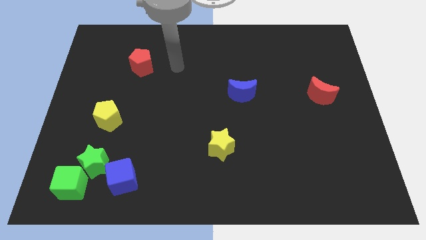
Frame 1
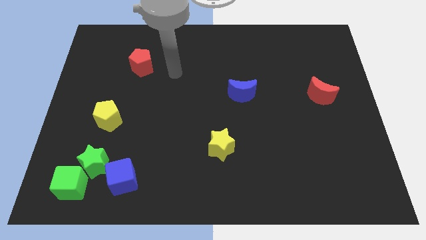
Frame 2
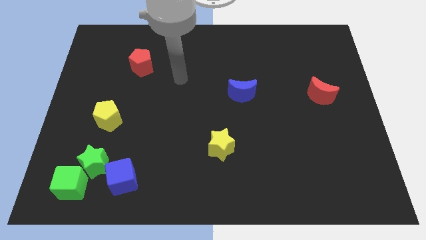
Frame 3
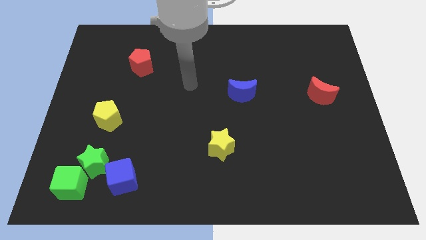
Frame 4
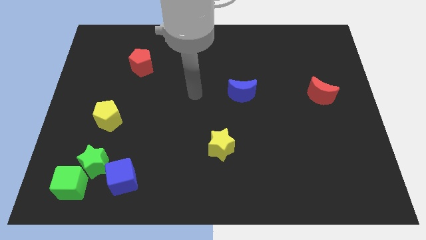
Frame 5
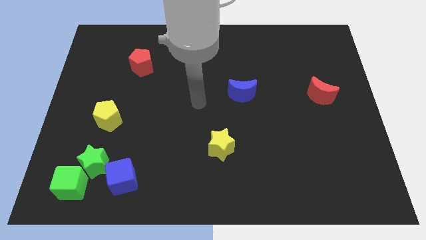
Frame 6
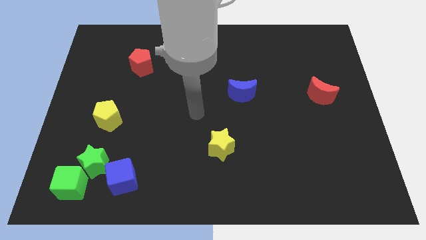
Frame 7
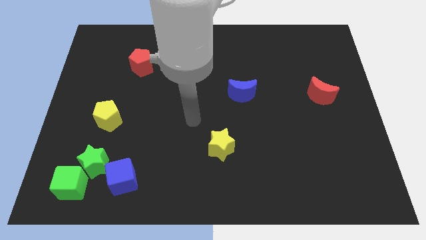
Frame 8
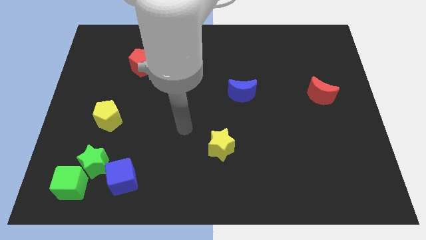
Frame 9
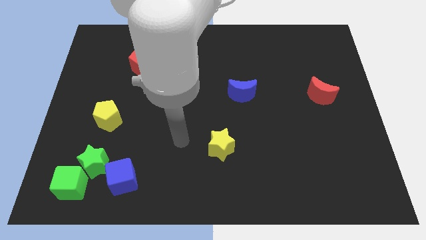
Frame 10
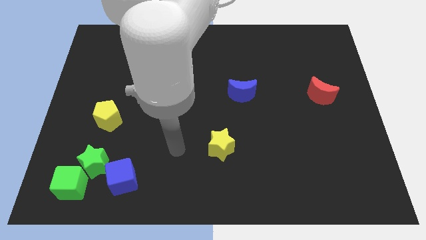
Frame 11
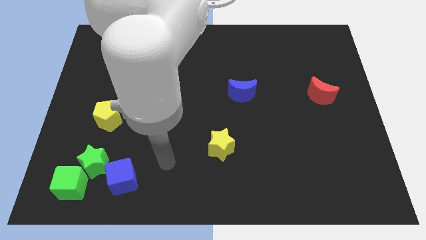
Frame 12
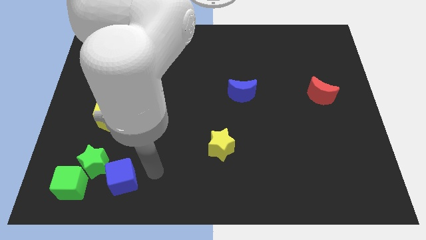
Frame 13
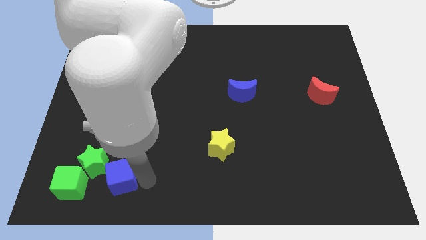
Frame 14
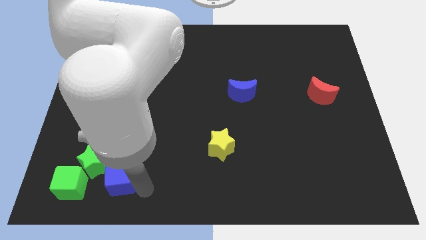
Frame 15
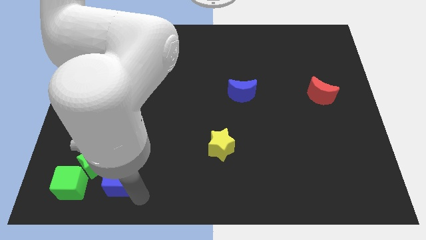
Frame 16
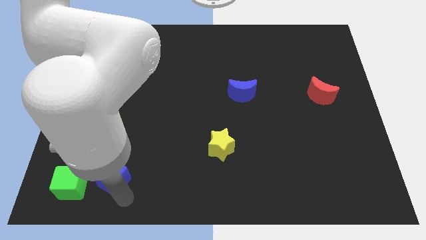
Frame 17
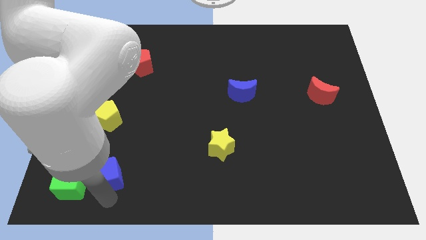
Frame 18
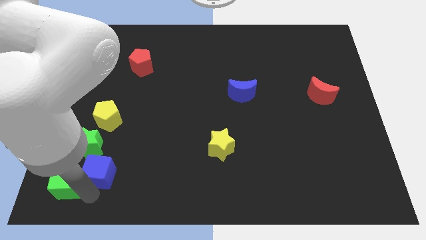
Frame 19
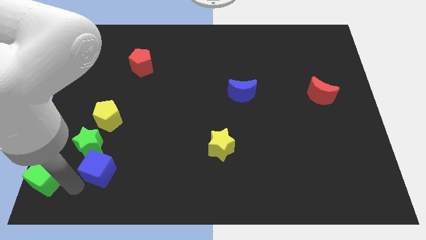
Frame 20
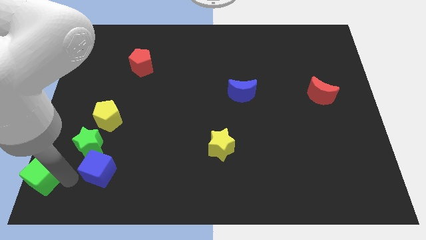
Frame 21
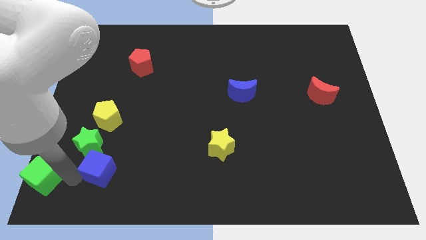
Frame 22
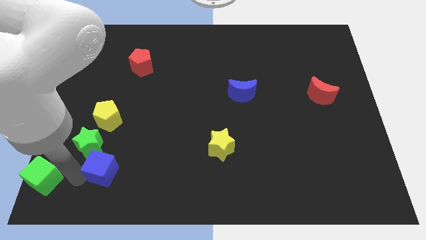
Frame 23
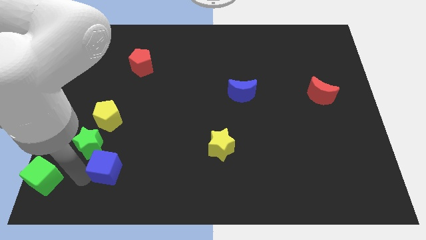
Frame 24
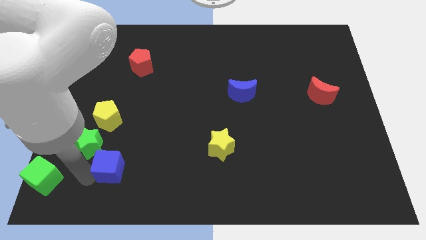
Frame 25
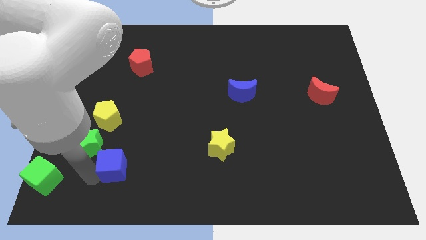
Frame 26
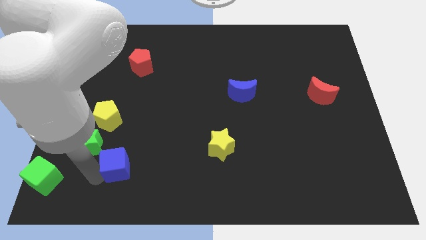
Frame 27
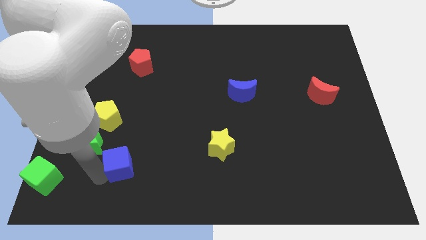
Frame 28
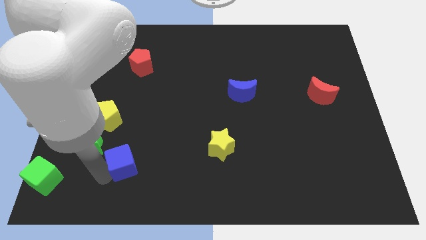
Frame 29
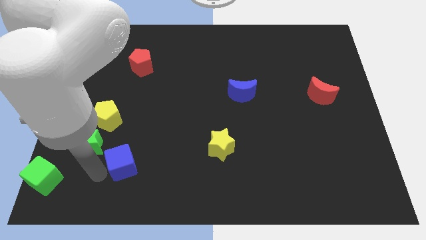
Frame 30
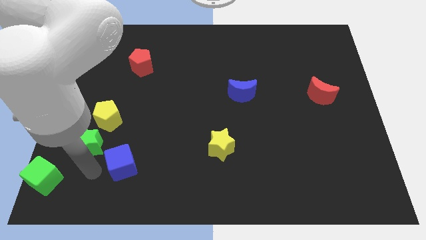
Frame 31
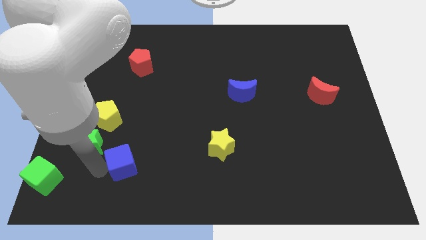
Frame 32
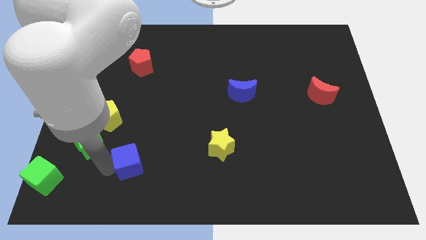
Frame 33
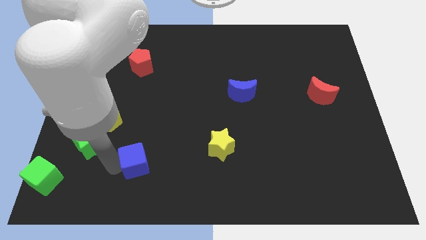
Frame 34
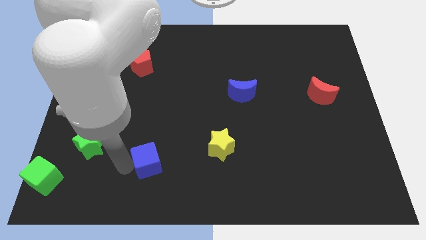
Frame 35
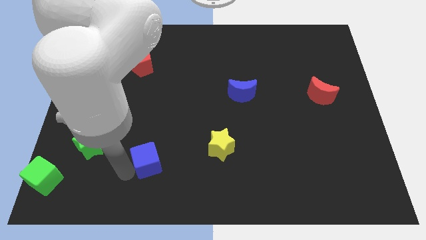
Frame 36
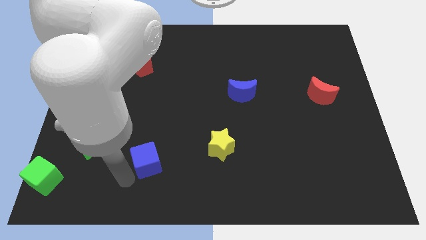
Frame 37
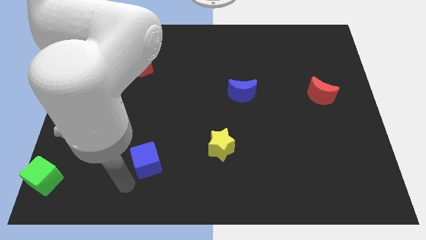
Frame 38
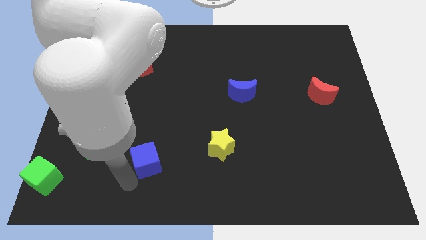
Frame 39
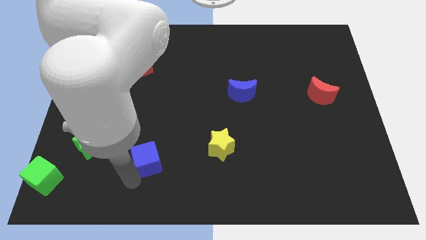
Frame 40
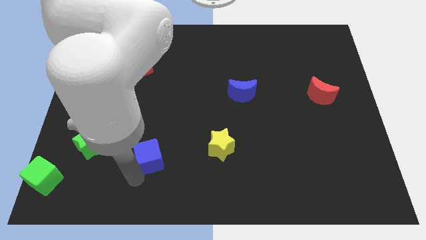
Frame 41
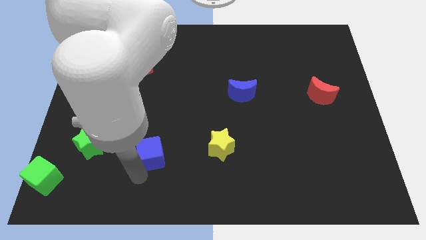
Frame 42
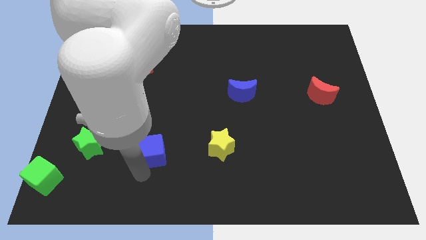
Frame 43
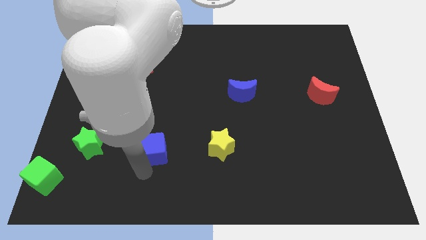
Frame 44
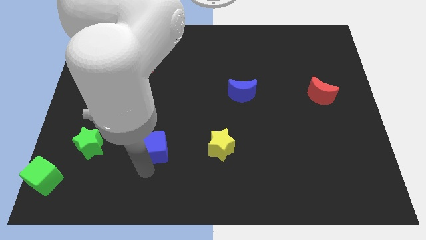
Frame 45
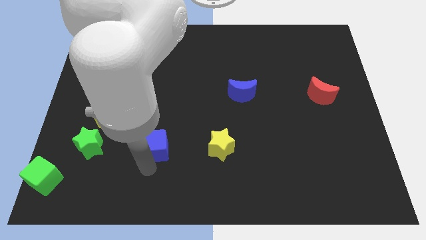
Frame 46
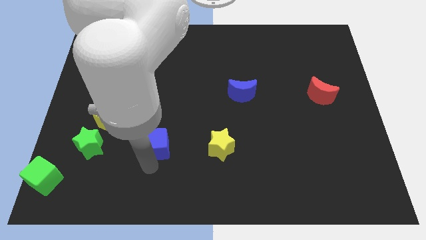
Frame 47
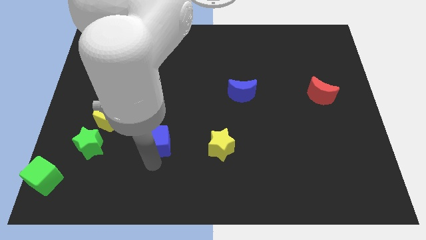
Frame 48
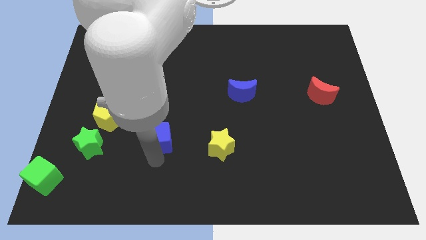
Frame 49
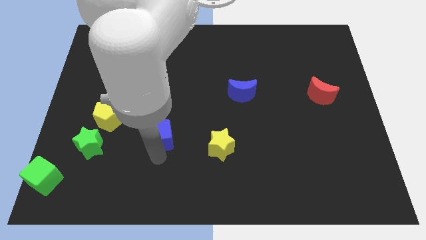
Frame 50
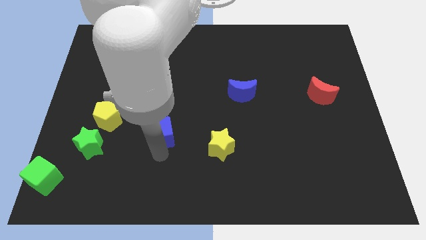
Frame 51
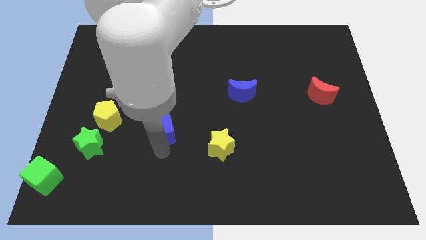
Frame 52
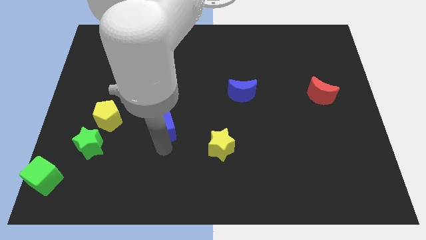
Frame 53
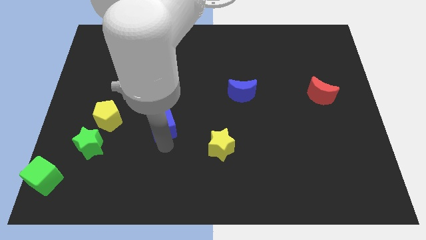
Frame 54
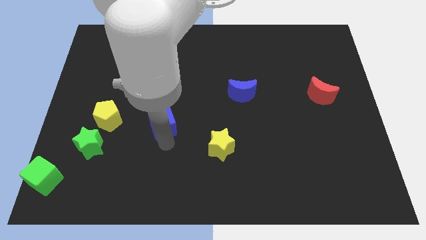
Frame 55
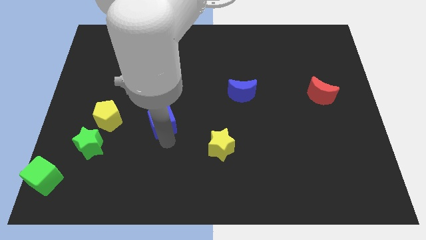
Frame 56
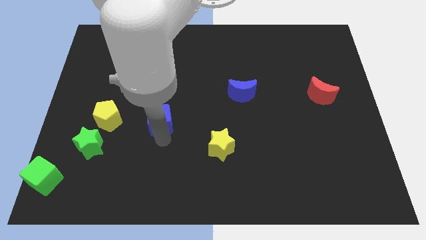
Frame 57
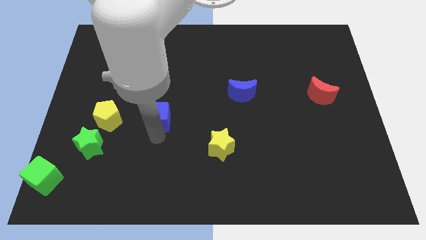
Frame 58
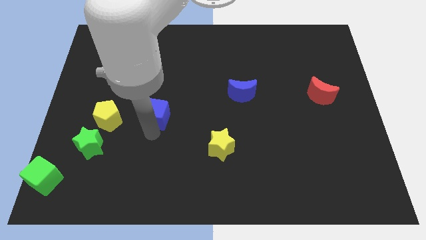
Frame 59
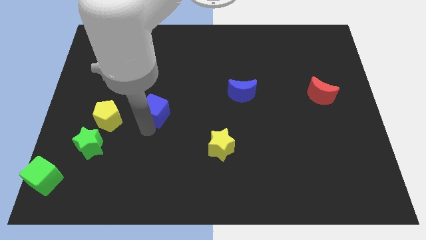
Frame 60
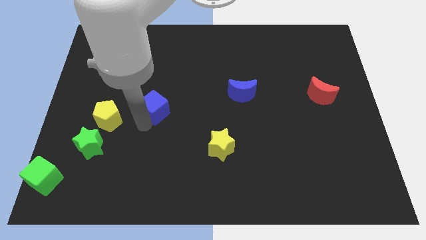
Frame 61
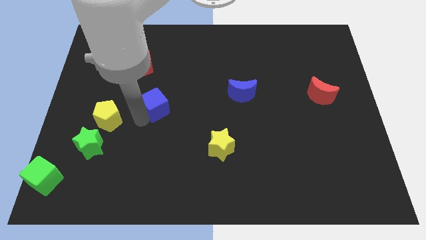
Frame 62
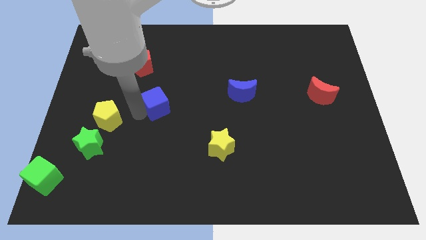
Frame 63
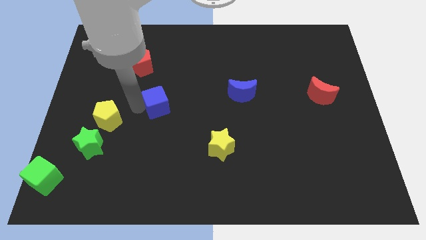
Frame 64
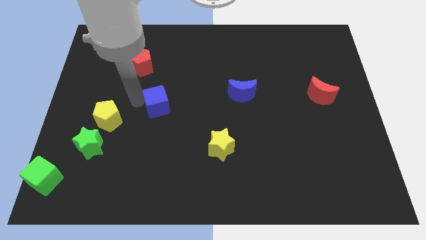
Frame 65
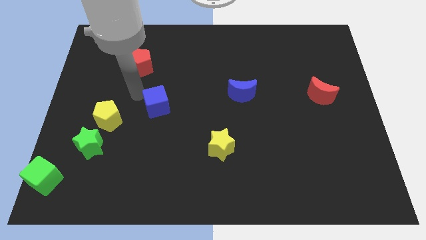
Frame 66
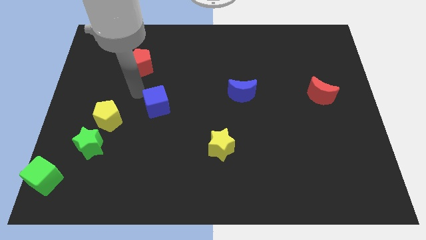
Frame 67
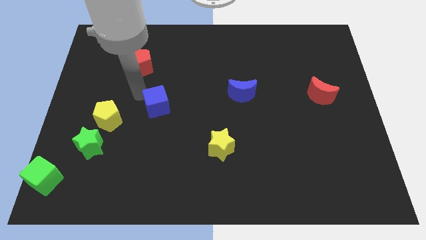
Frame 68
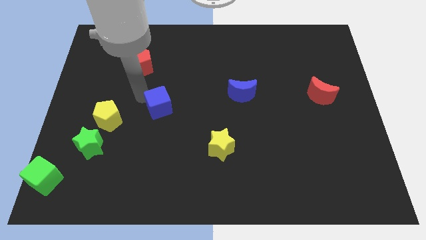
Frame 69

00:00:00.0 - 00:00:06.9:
push the blue cube to the middle of the board
